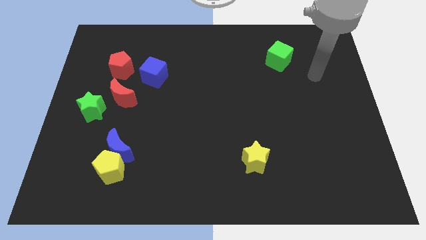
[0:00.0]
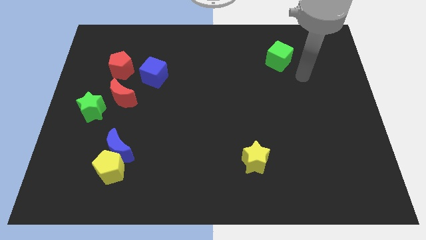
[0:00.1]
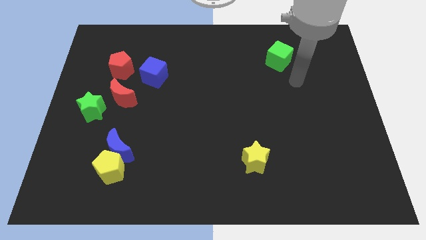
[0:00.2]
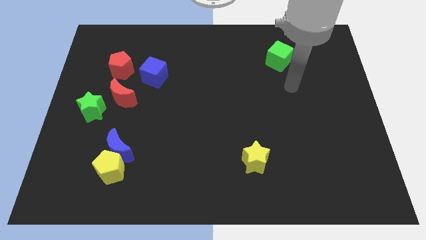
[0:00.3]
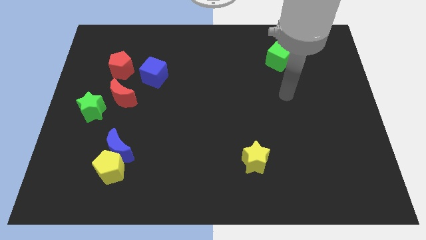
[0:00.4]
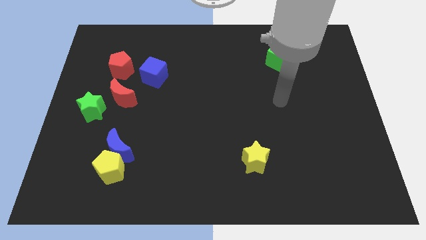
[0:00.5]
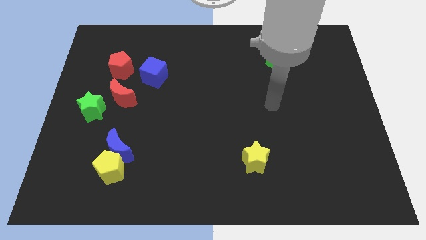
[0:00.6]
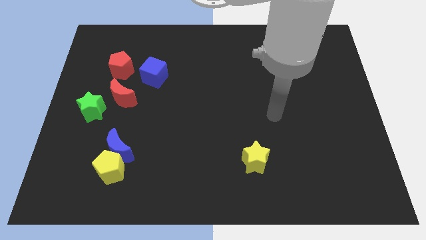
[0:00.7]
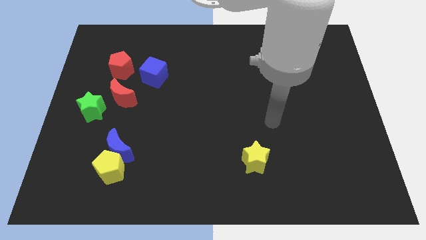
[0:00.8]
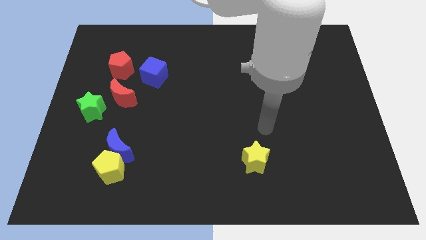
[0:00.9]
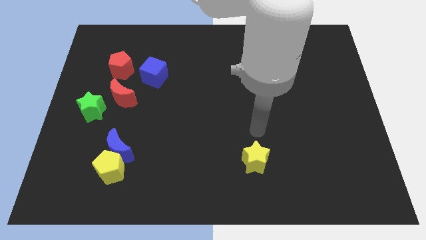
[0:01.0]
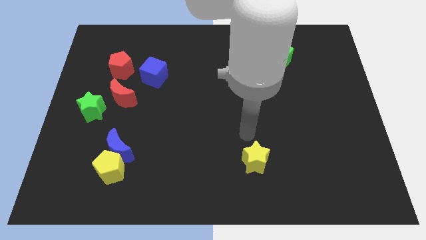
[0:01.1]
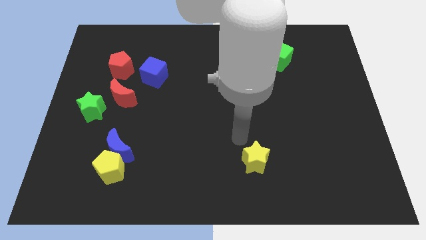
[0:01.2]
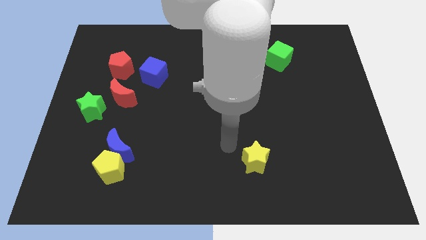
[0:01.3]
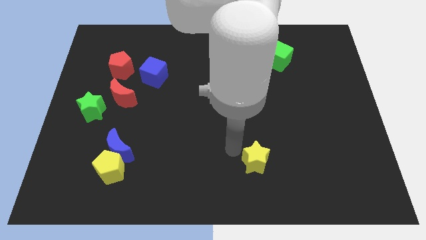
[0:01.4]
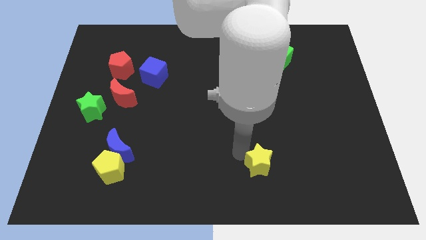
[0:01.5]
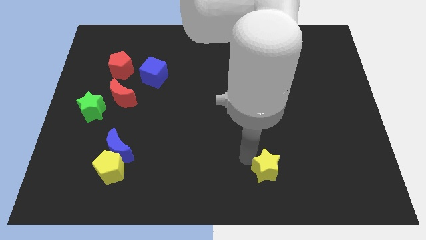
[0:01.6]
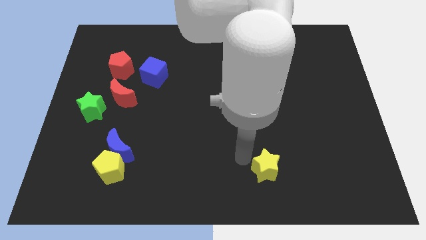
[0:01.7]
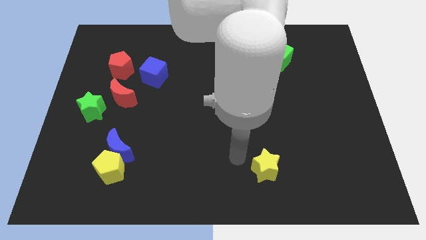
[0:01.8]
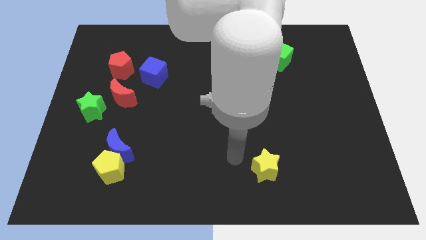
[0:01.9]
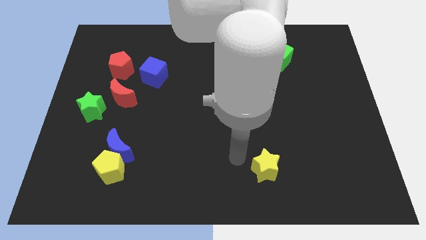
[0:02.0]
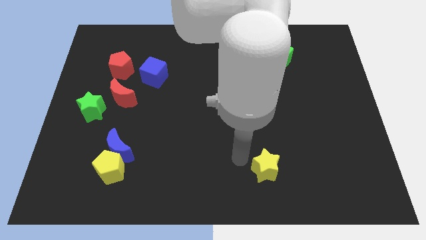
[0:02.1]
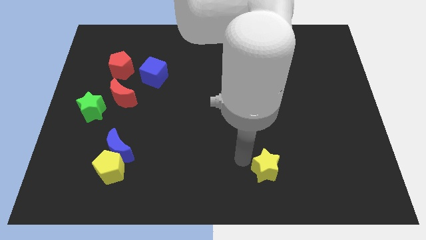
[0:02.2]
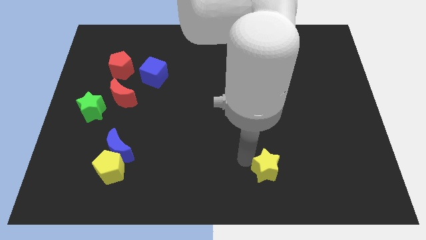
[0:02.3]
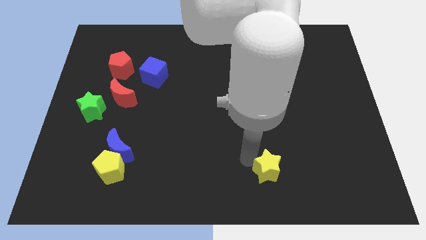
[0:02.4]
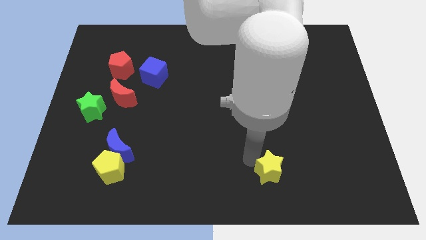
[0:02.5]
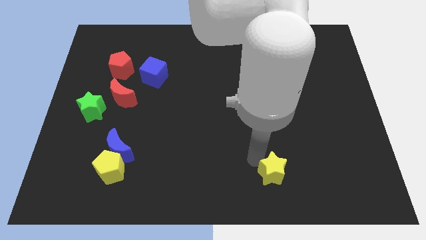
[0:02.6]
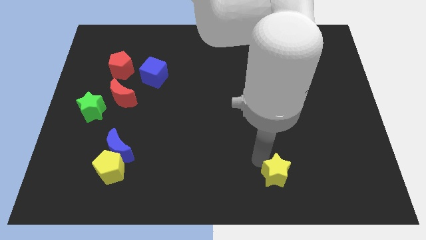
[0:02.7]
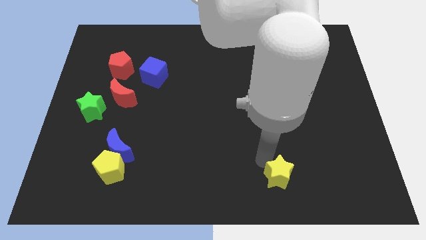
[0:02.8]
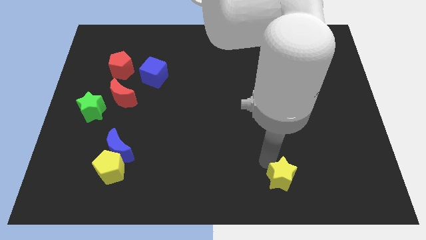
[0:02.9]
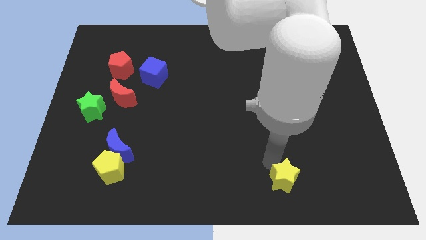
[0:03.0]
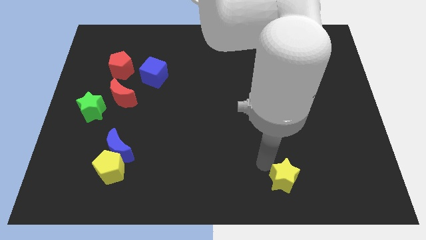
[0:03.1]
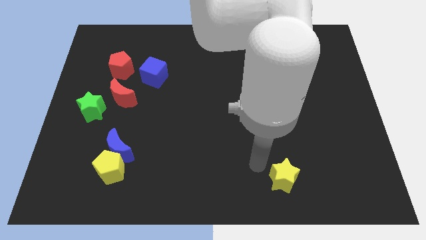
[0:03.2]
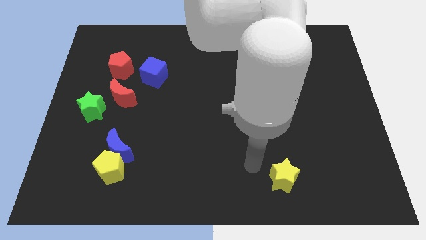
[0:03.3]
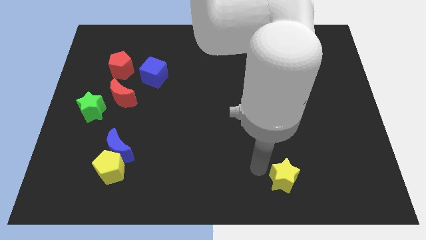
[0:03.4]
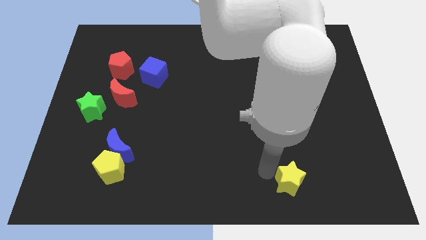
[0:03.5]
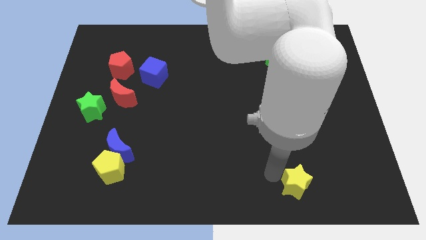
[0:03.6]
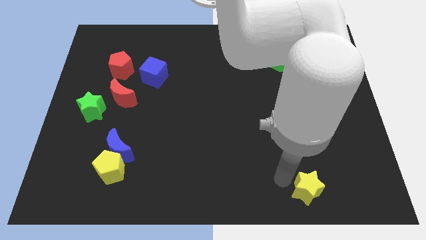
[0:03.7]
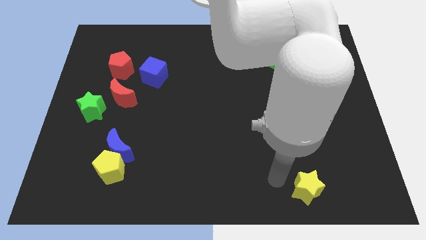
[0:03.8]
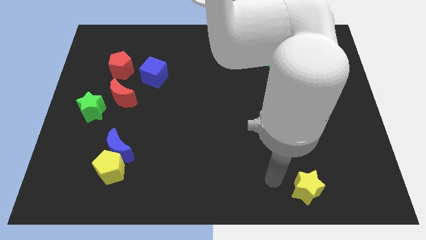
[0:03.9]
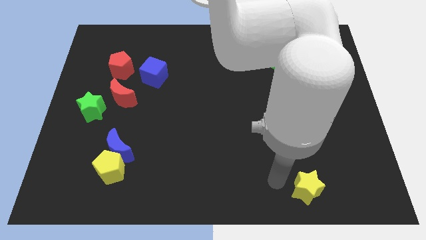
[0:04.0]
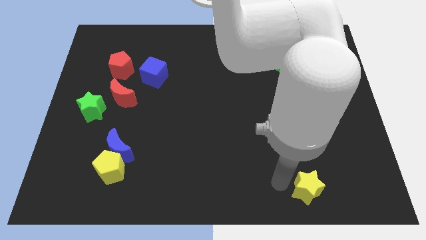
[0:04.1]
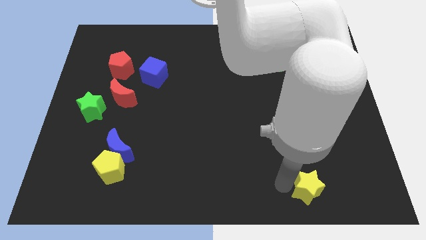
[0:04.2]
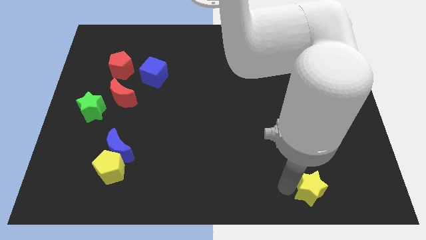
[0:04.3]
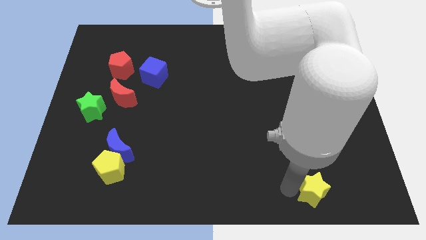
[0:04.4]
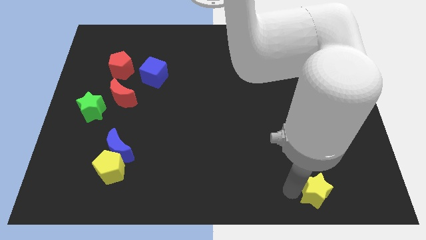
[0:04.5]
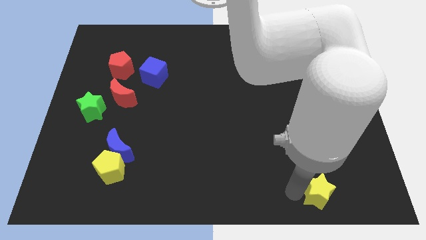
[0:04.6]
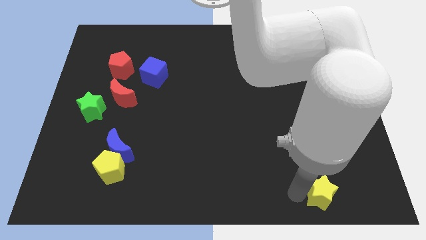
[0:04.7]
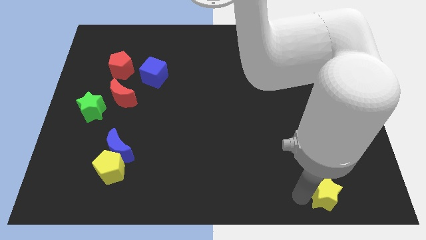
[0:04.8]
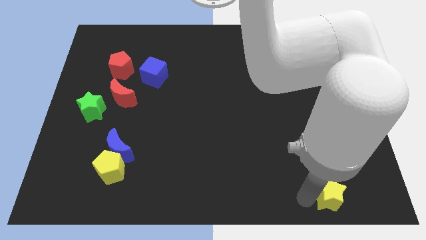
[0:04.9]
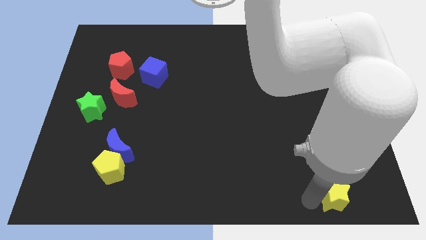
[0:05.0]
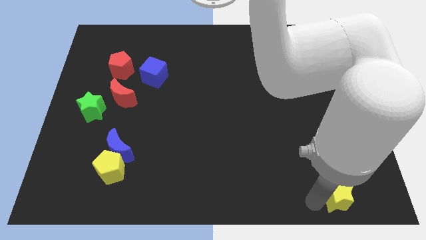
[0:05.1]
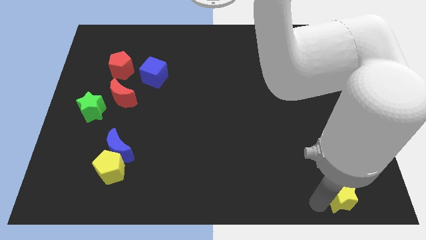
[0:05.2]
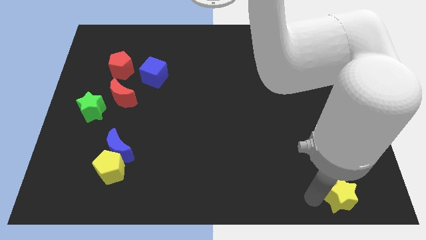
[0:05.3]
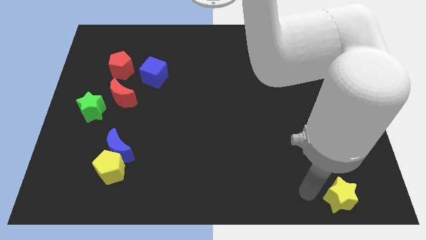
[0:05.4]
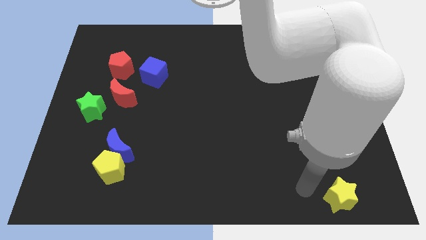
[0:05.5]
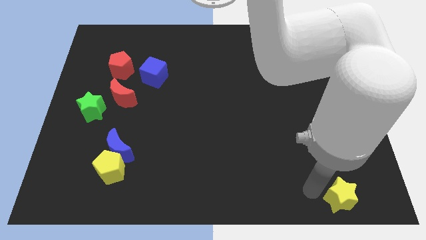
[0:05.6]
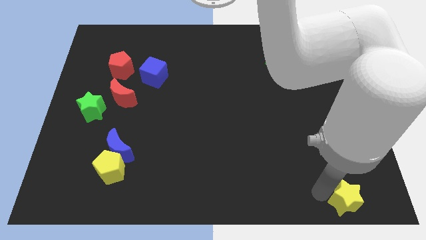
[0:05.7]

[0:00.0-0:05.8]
push the yellow star to the bottom right of the board

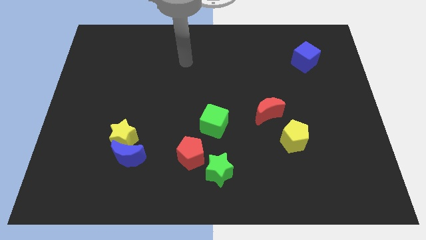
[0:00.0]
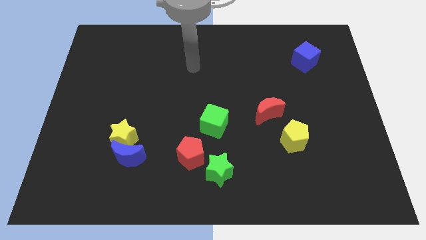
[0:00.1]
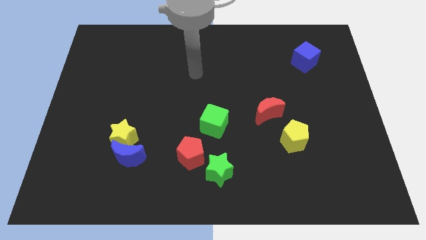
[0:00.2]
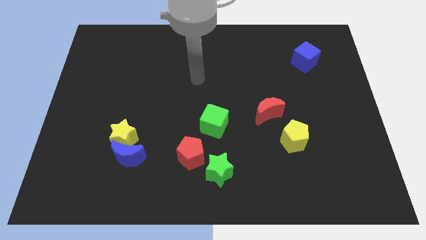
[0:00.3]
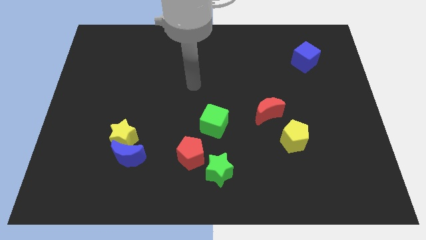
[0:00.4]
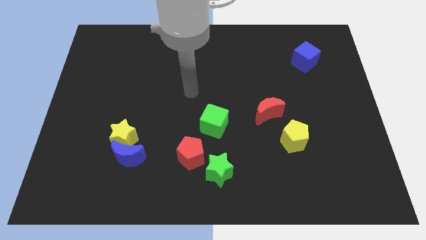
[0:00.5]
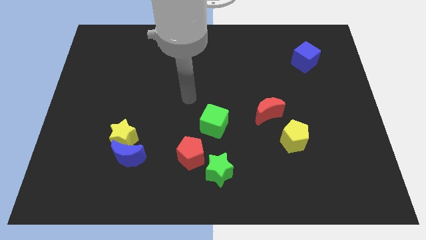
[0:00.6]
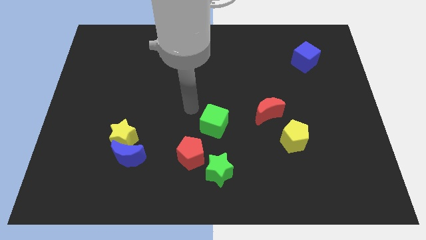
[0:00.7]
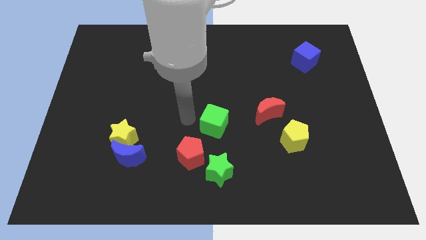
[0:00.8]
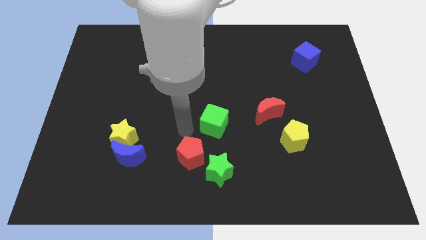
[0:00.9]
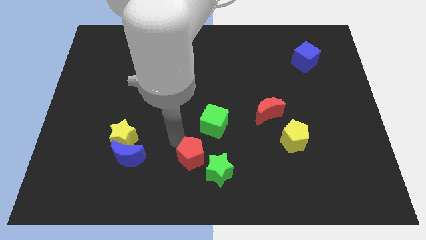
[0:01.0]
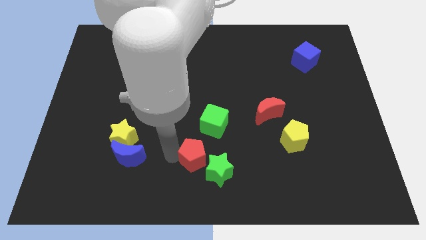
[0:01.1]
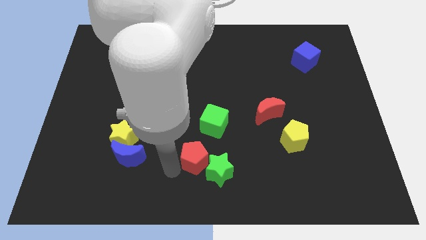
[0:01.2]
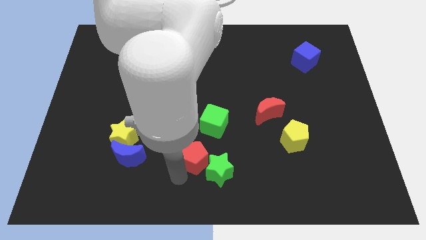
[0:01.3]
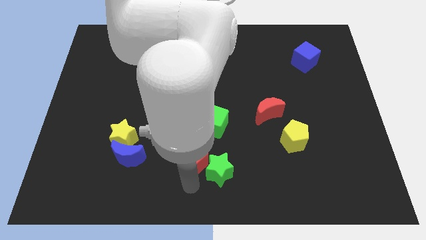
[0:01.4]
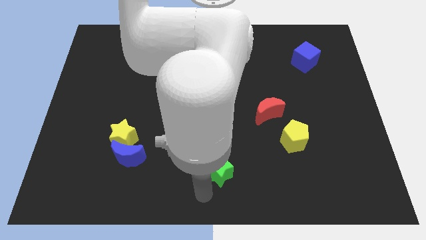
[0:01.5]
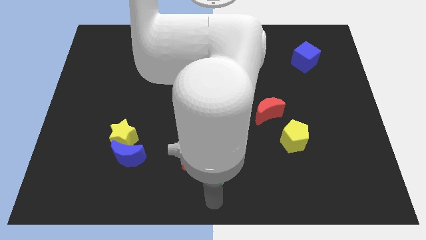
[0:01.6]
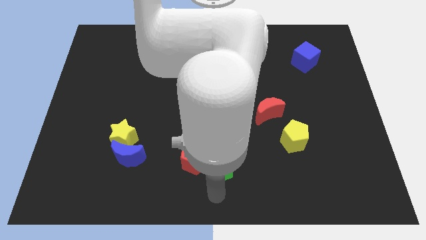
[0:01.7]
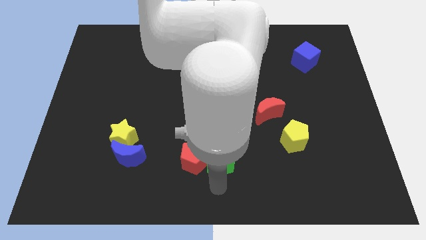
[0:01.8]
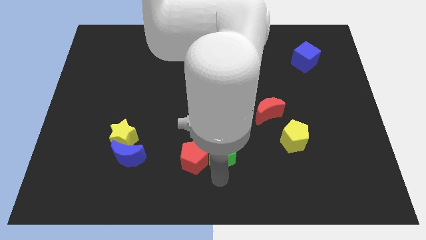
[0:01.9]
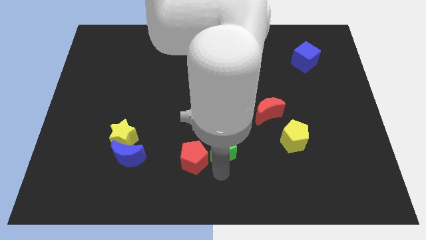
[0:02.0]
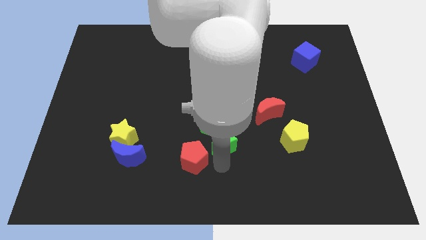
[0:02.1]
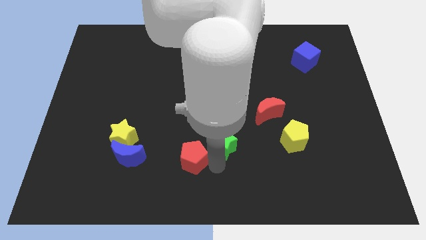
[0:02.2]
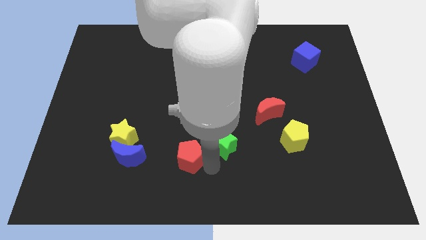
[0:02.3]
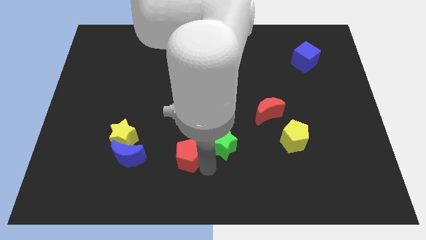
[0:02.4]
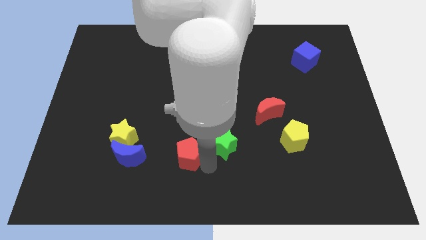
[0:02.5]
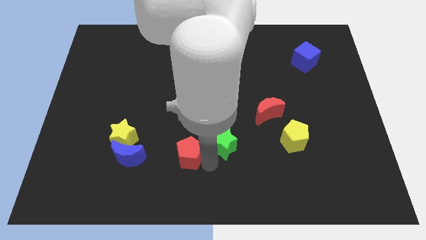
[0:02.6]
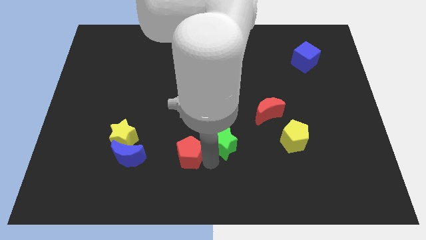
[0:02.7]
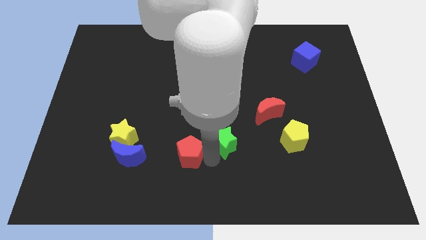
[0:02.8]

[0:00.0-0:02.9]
put the green star to the middle
